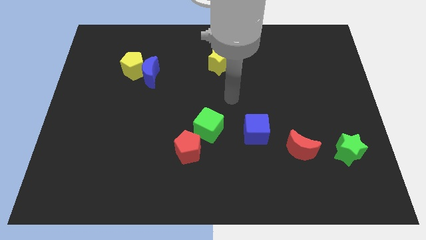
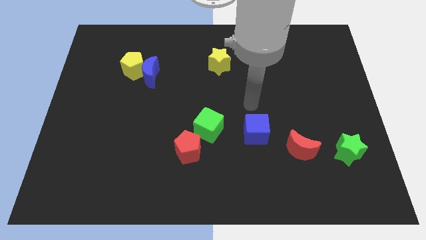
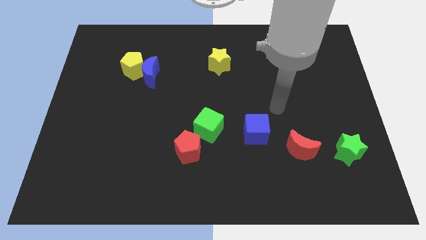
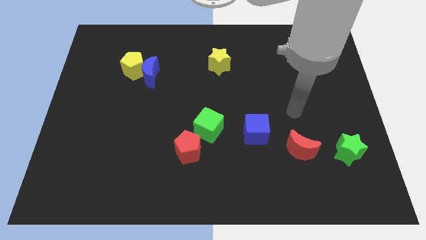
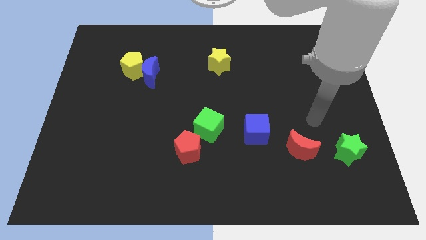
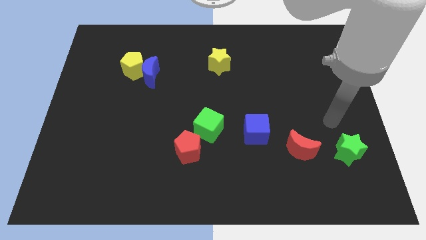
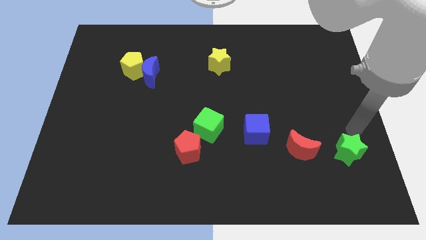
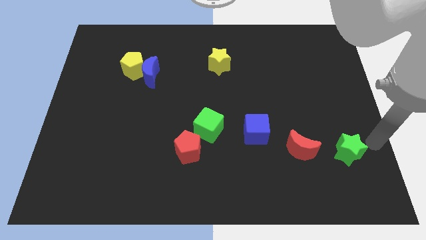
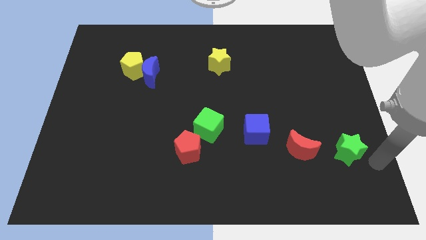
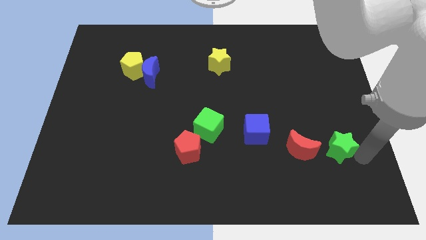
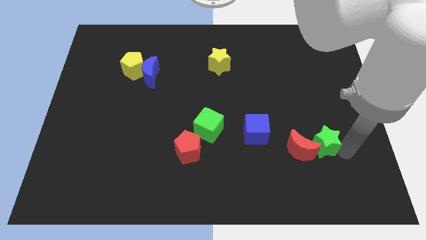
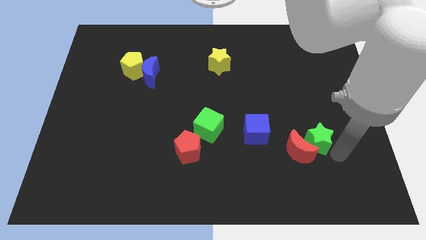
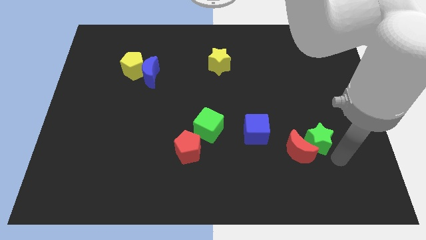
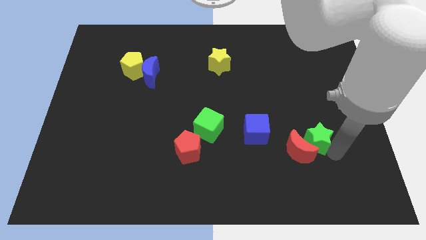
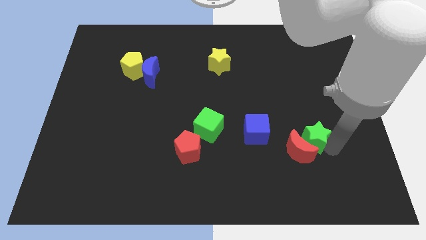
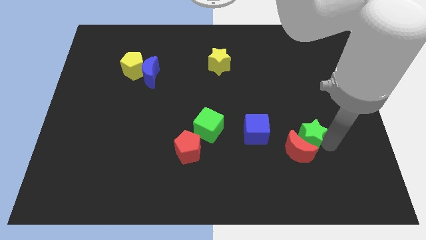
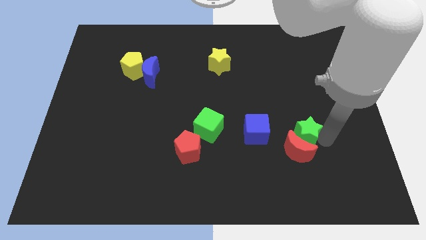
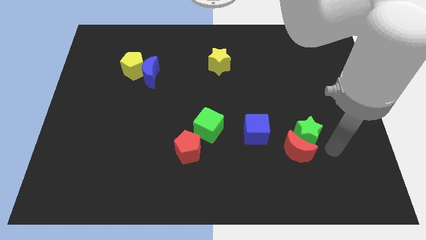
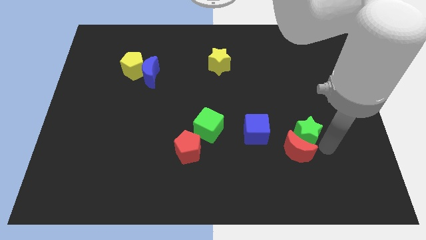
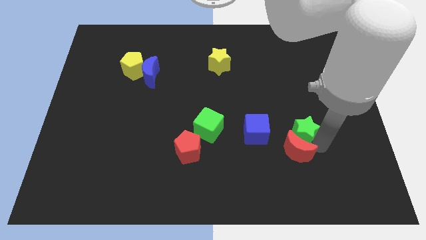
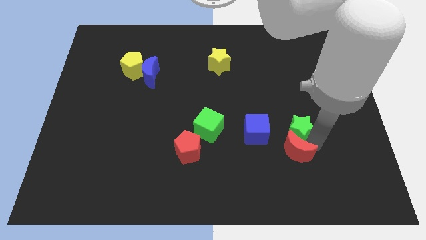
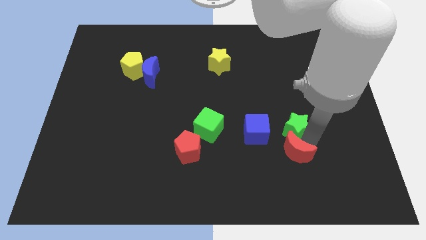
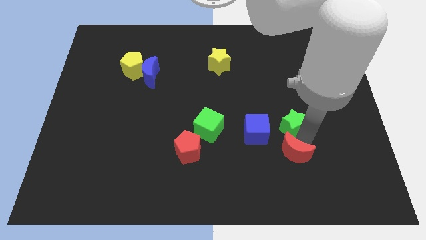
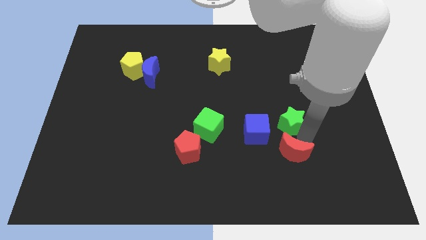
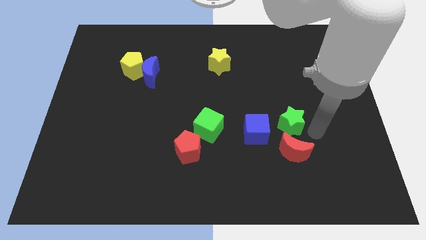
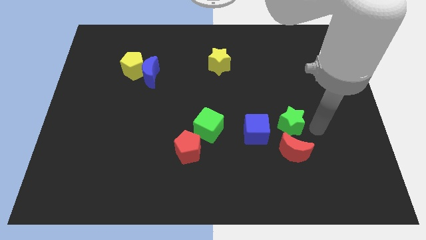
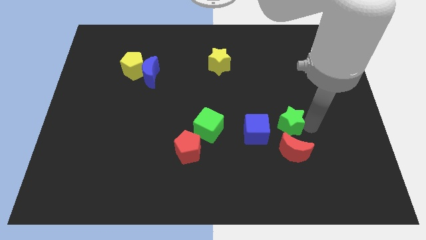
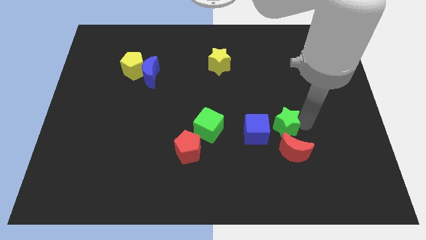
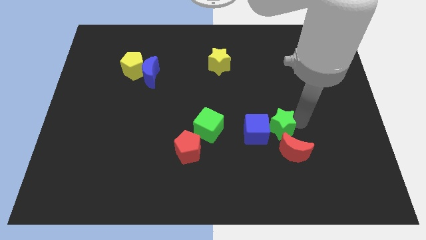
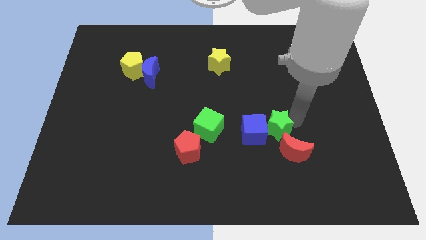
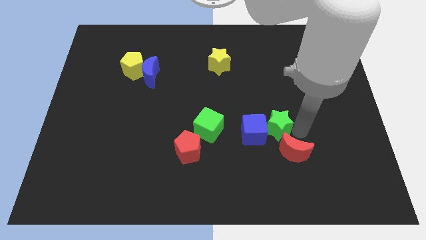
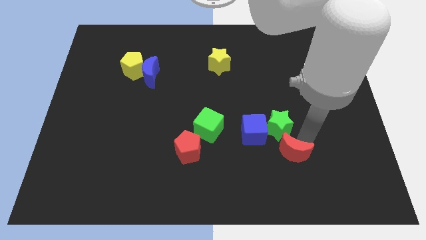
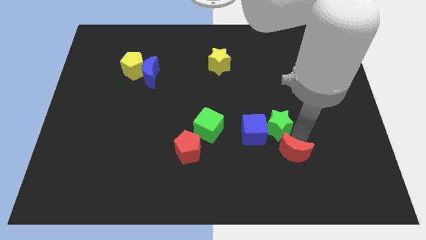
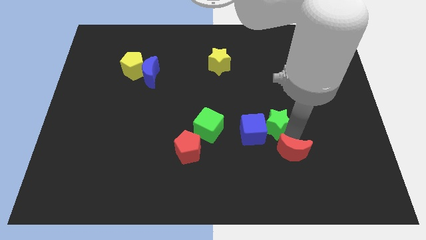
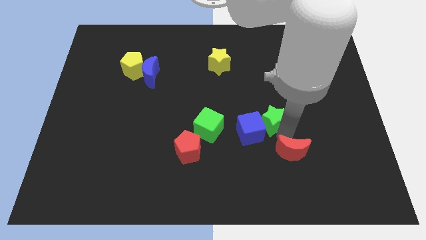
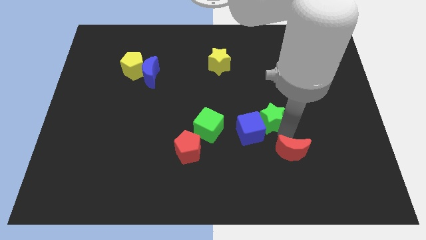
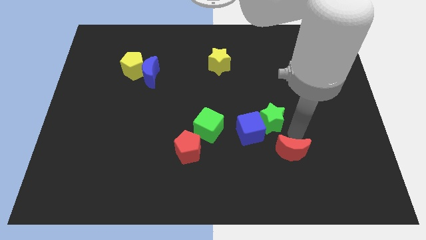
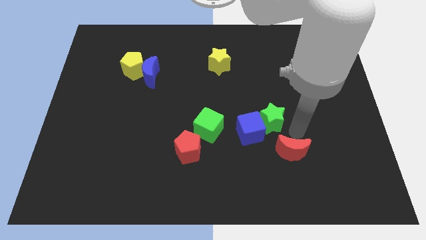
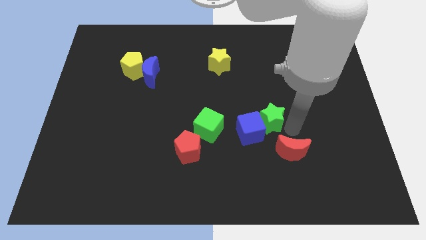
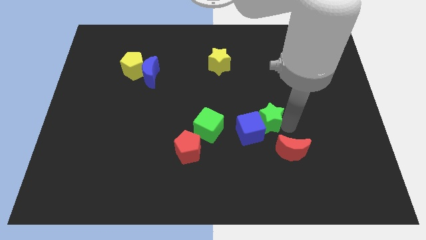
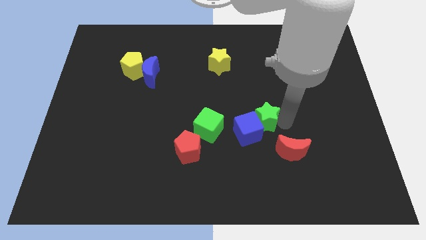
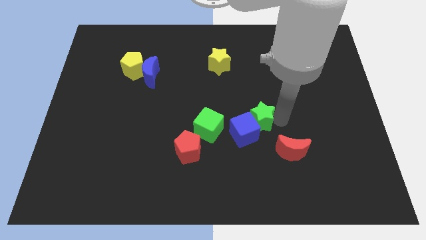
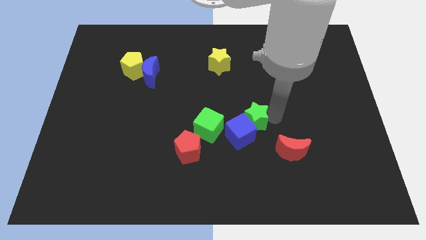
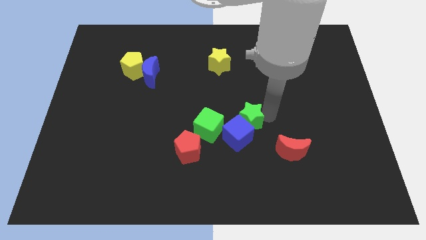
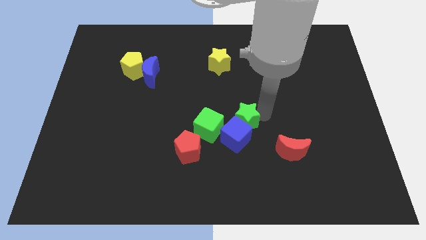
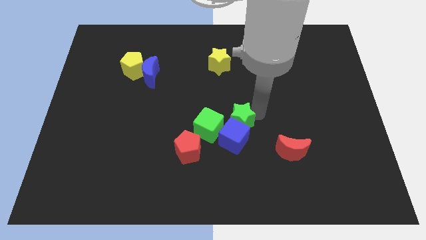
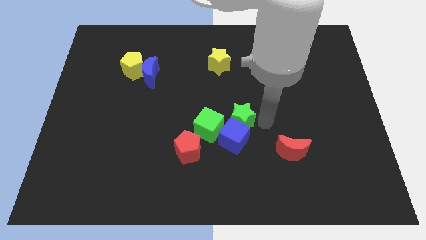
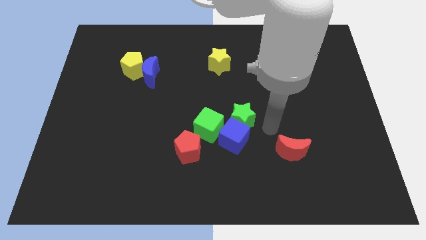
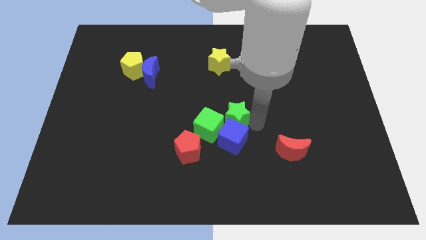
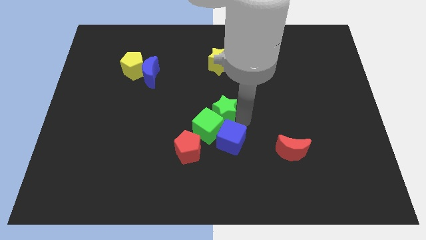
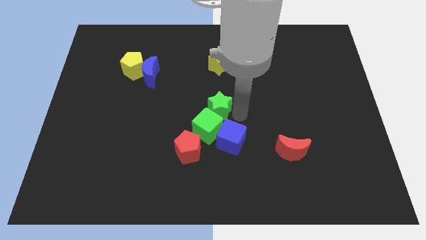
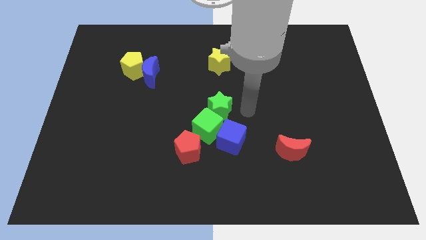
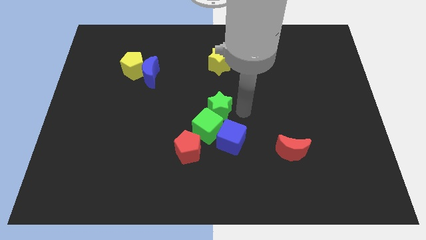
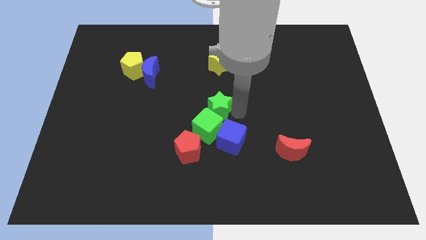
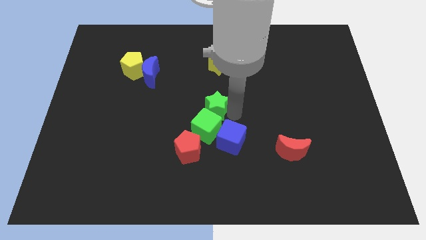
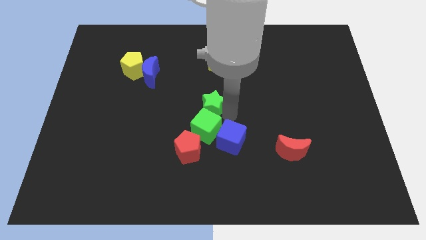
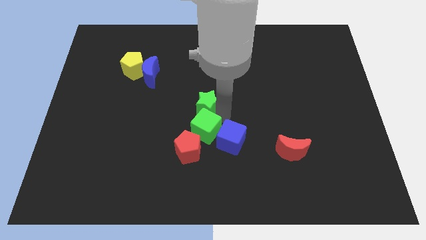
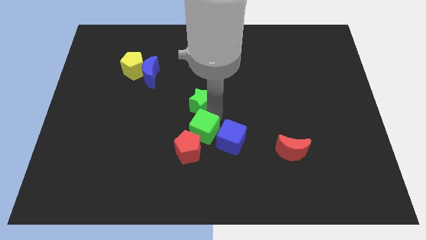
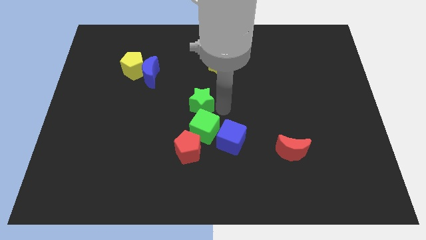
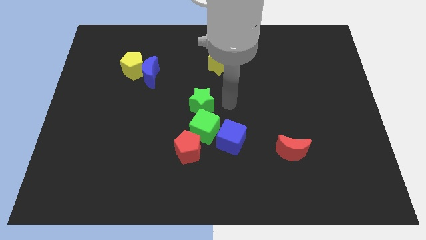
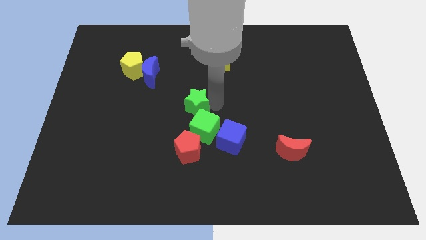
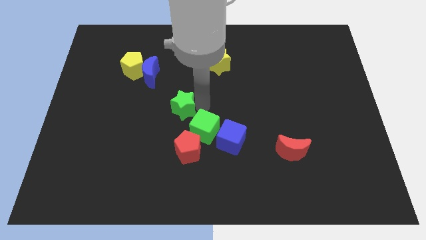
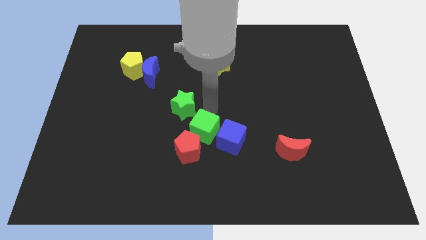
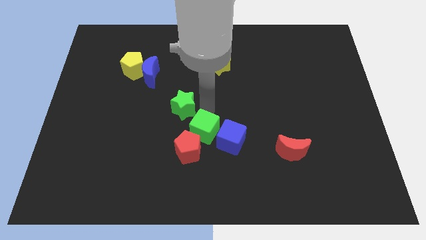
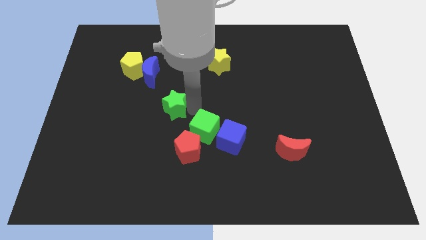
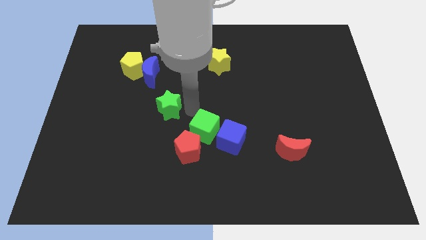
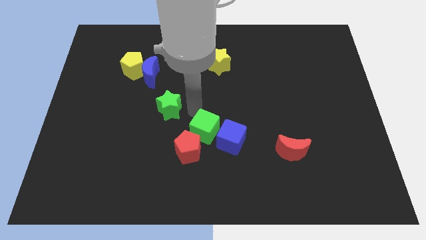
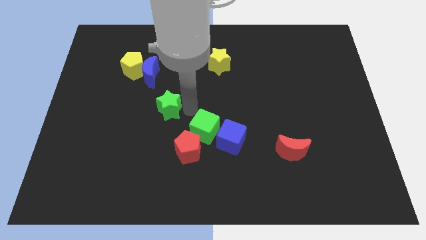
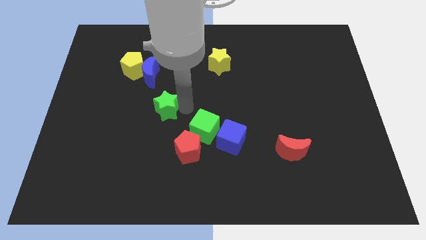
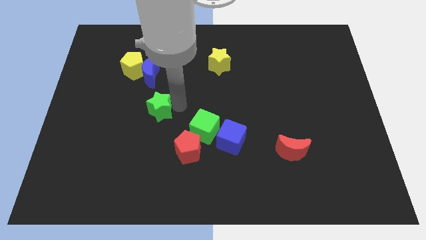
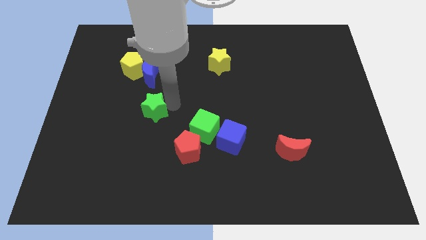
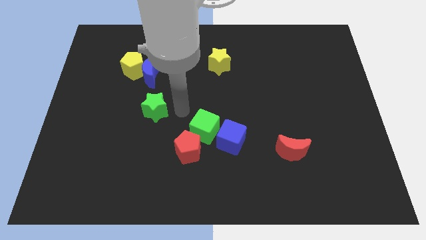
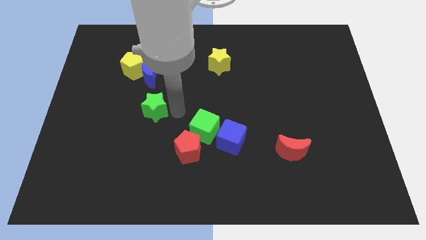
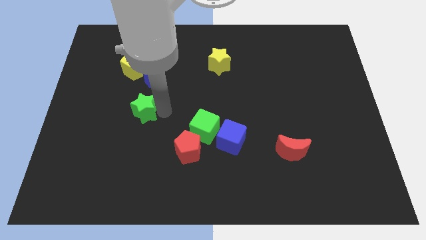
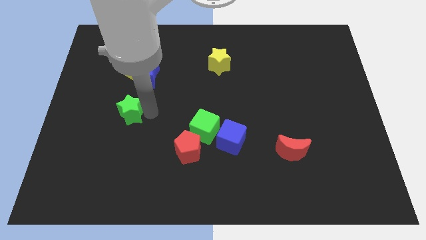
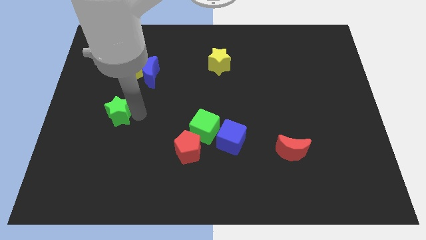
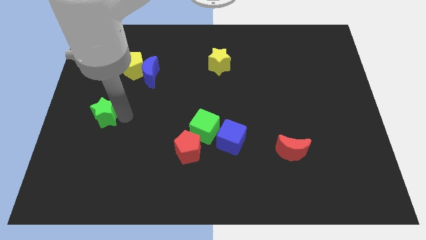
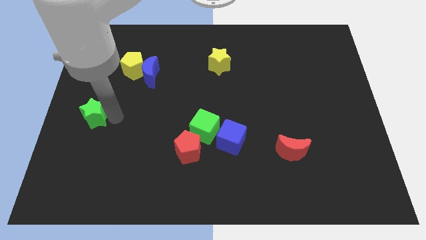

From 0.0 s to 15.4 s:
push the green star to the left side of the board
